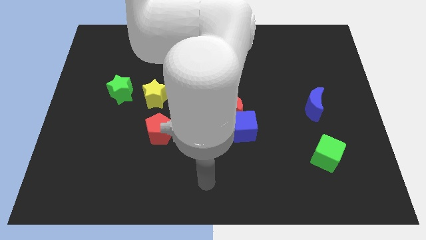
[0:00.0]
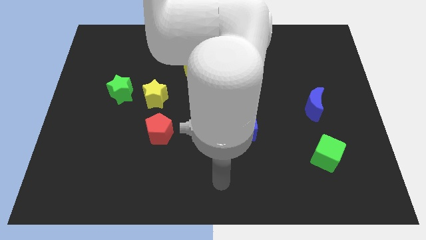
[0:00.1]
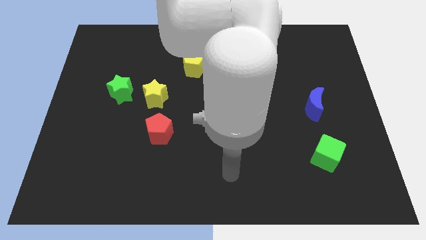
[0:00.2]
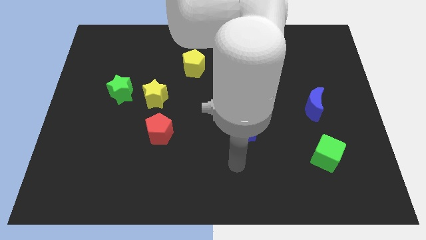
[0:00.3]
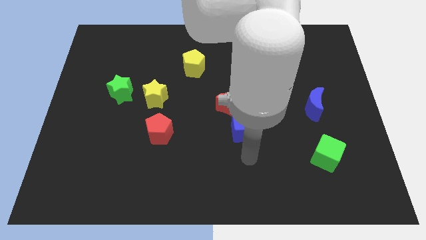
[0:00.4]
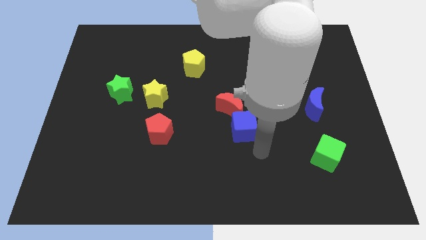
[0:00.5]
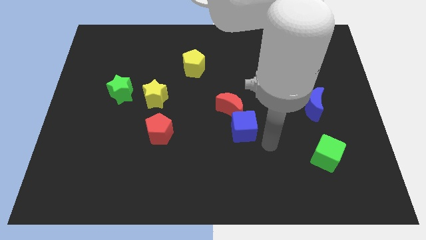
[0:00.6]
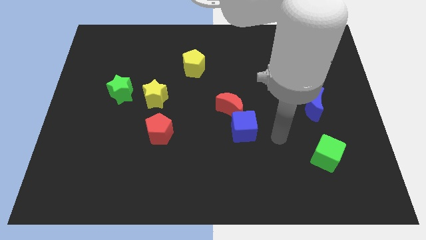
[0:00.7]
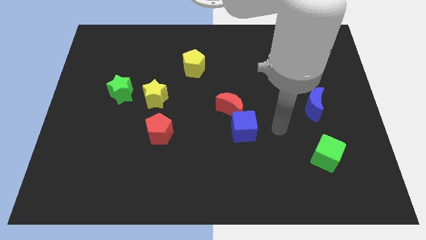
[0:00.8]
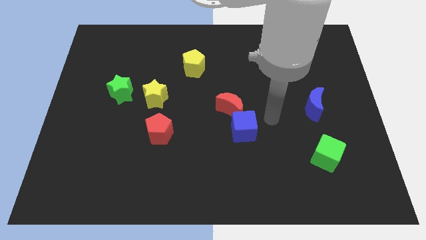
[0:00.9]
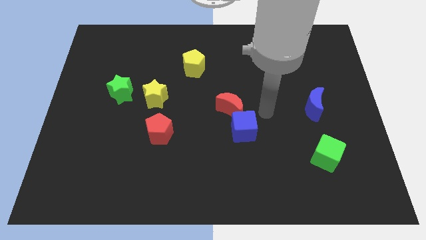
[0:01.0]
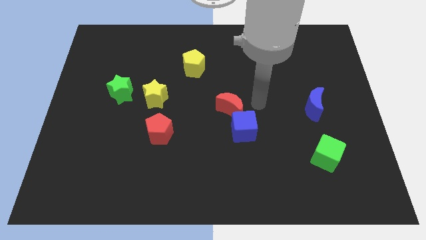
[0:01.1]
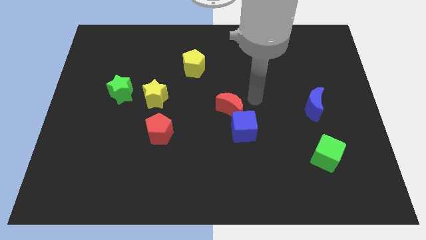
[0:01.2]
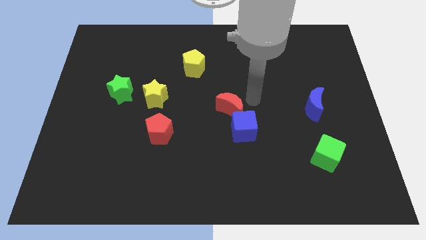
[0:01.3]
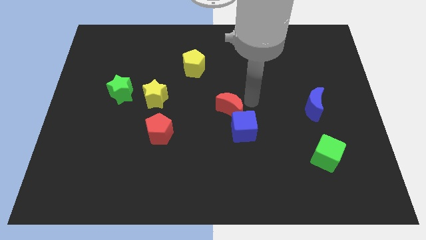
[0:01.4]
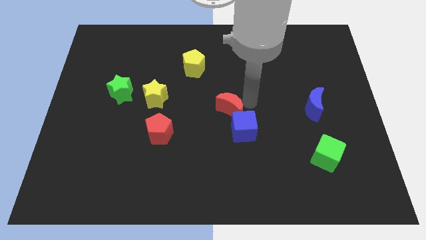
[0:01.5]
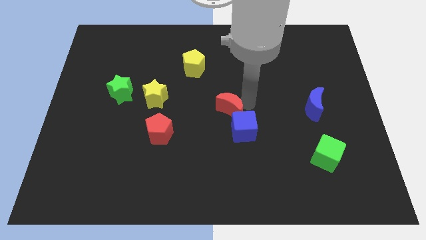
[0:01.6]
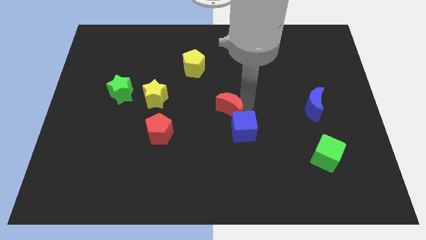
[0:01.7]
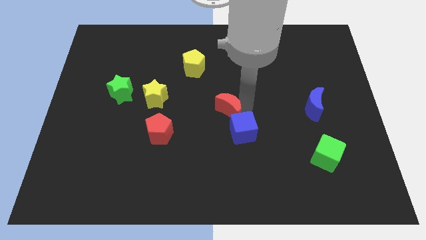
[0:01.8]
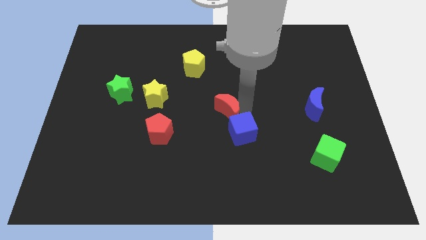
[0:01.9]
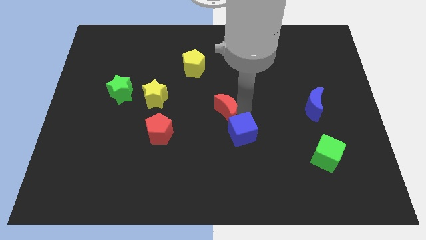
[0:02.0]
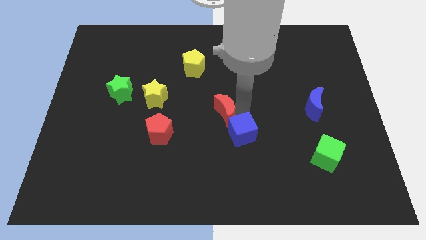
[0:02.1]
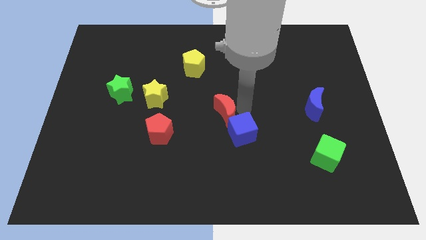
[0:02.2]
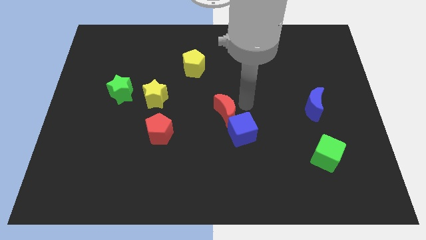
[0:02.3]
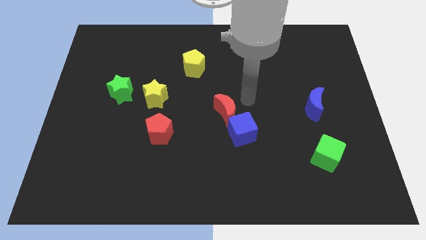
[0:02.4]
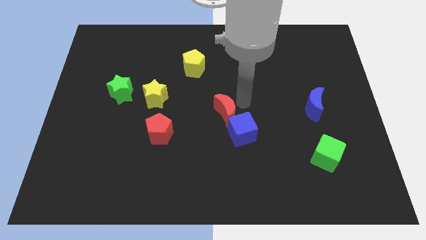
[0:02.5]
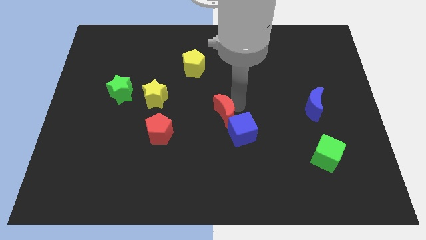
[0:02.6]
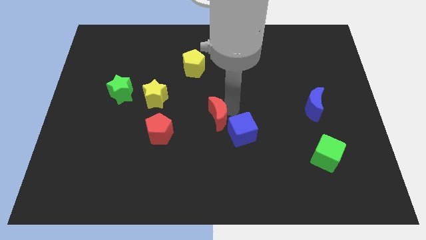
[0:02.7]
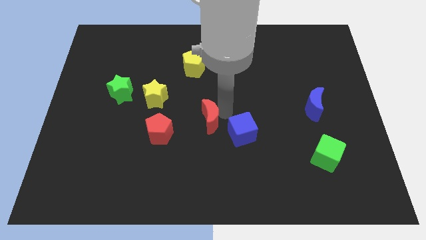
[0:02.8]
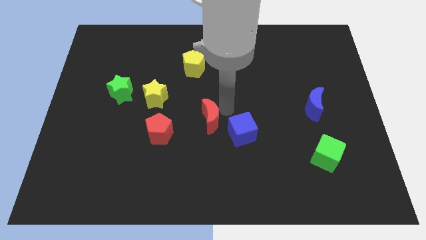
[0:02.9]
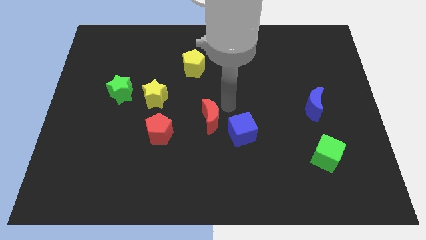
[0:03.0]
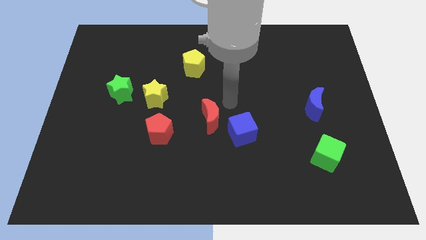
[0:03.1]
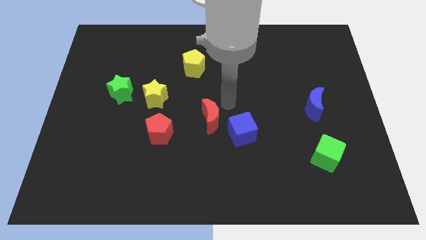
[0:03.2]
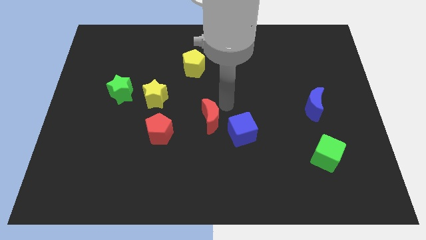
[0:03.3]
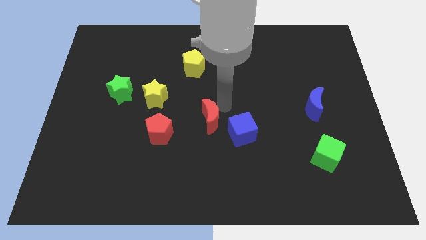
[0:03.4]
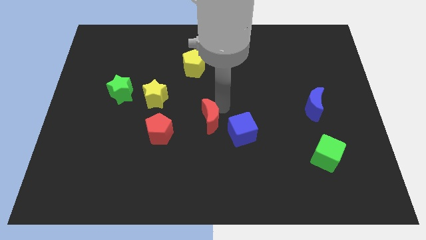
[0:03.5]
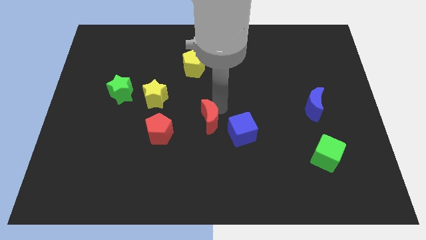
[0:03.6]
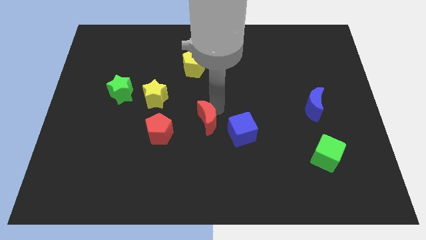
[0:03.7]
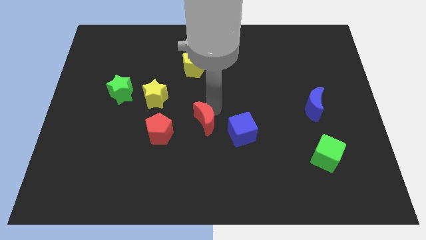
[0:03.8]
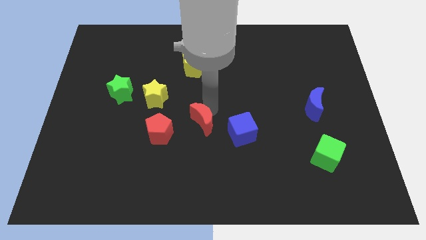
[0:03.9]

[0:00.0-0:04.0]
slightly push the red moon downwards and left diagonally

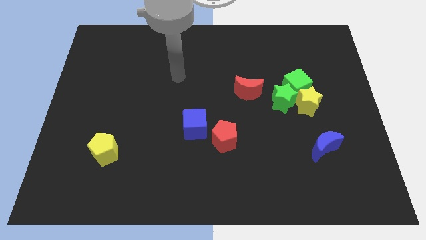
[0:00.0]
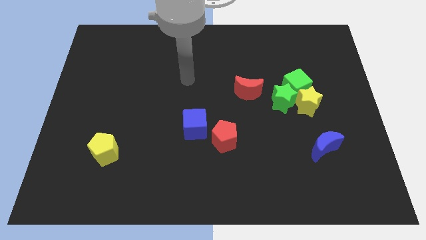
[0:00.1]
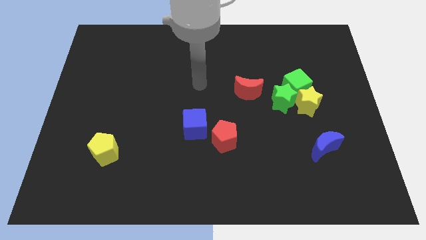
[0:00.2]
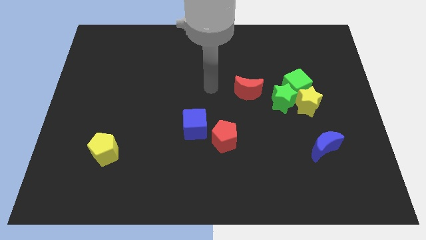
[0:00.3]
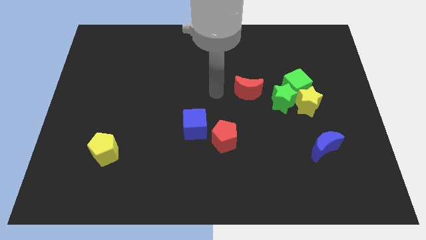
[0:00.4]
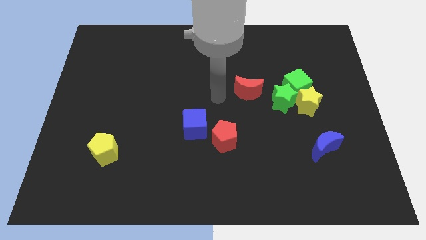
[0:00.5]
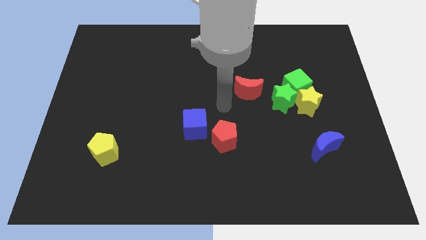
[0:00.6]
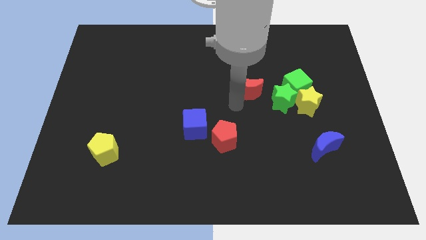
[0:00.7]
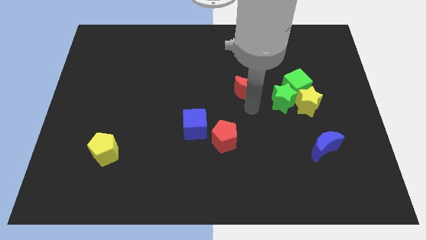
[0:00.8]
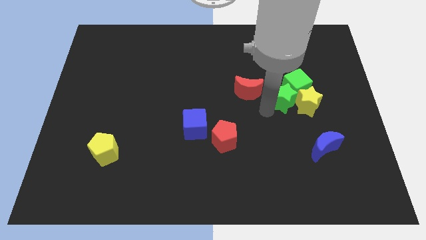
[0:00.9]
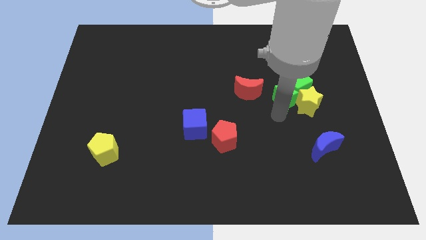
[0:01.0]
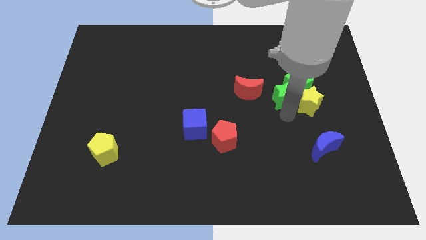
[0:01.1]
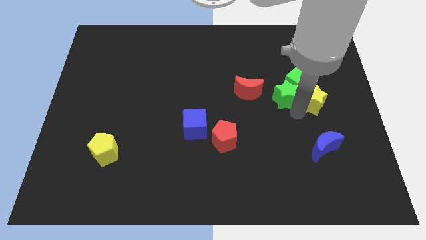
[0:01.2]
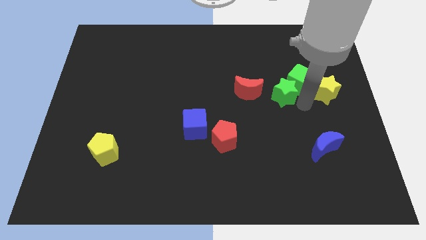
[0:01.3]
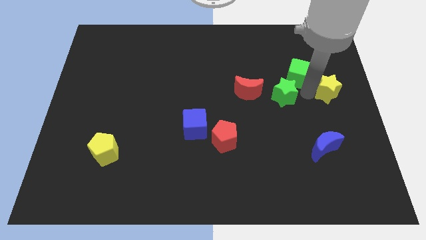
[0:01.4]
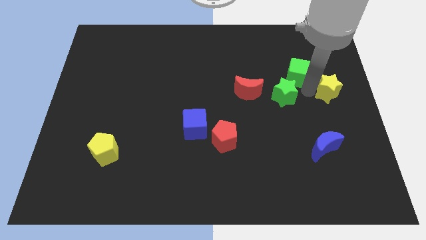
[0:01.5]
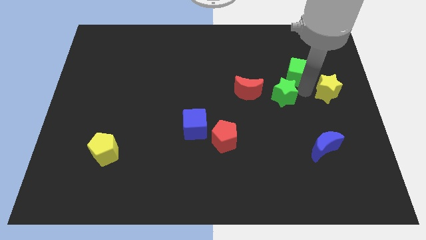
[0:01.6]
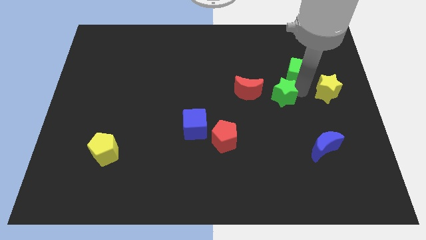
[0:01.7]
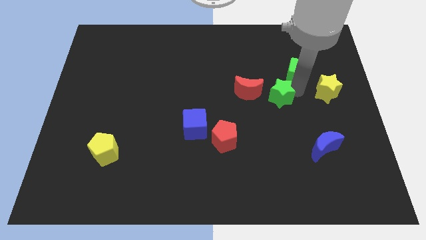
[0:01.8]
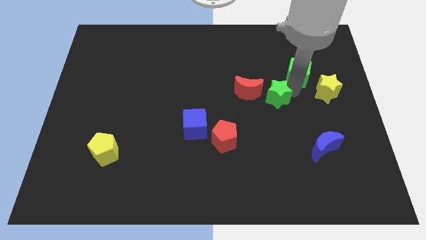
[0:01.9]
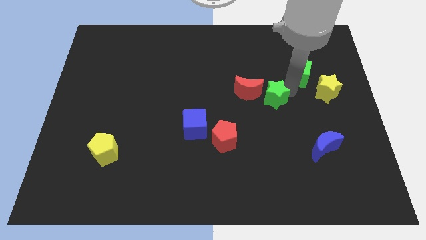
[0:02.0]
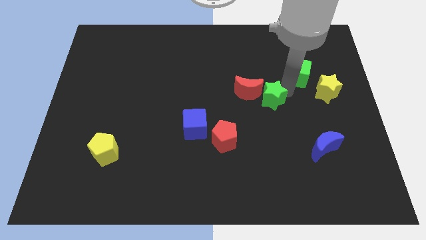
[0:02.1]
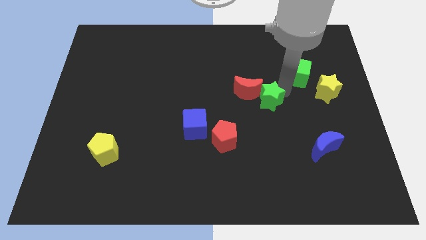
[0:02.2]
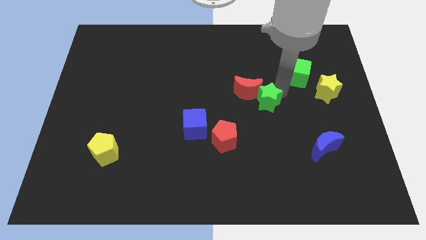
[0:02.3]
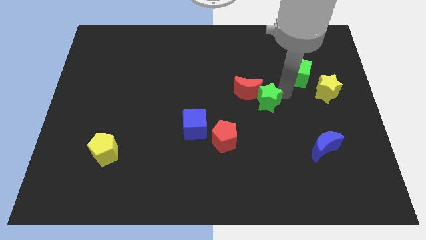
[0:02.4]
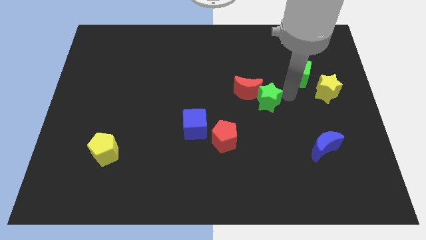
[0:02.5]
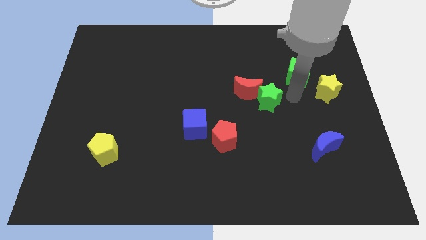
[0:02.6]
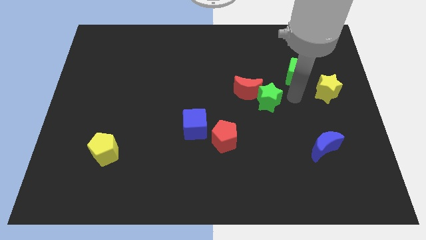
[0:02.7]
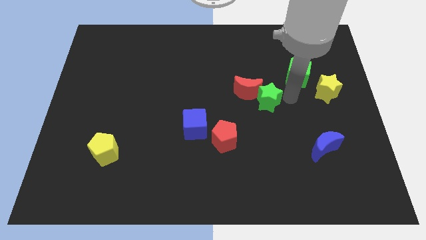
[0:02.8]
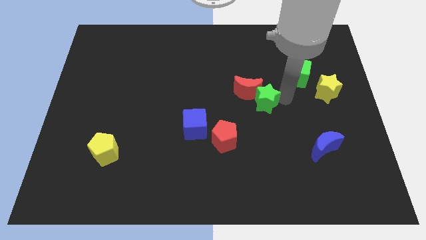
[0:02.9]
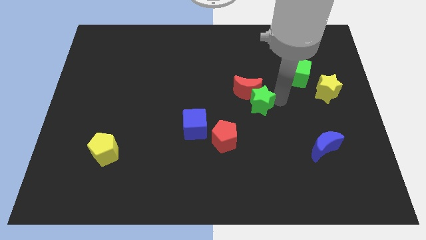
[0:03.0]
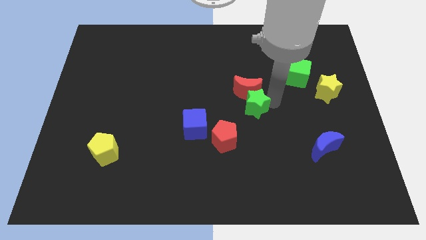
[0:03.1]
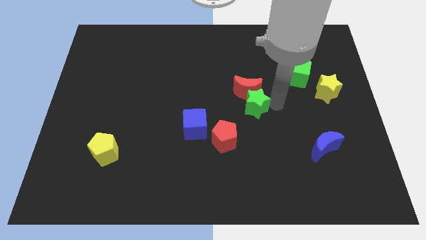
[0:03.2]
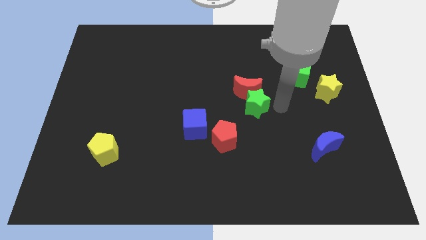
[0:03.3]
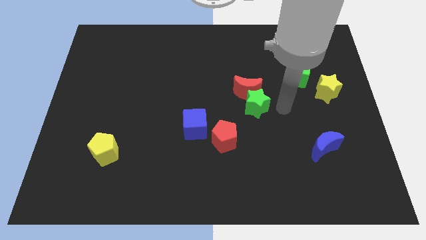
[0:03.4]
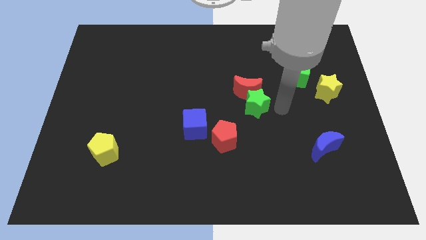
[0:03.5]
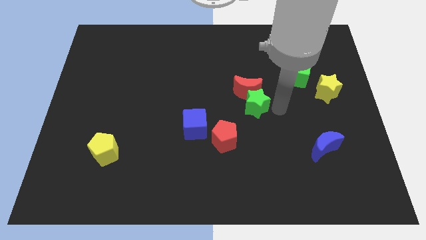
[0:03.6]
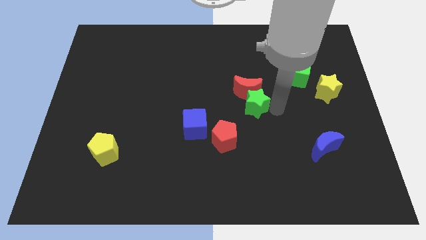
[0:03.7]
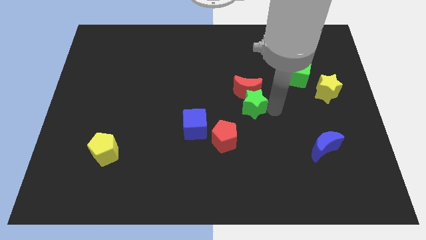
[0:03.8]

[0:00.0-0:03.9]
slightly push the green star left
